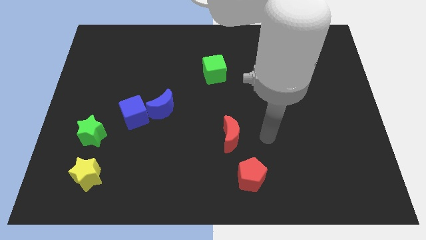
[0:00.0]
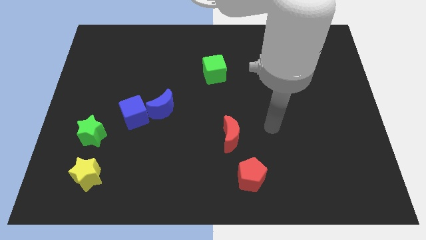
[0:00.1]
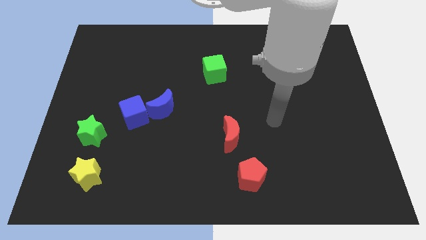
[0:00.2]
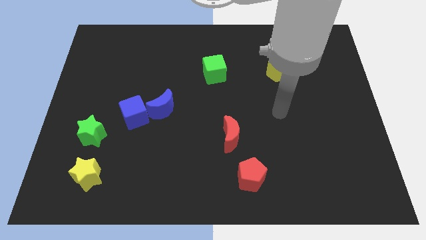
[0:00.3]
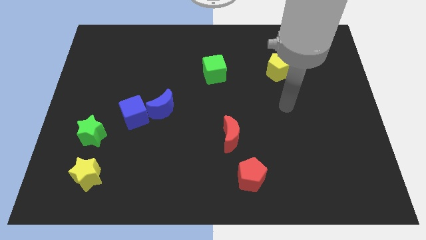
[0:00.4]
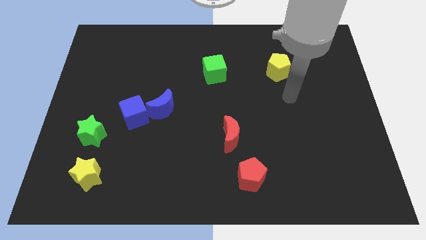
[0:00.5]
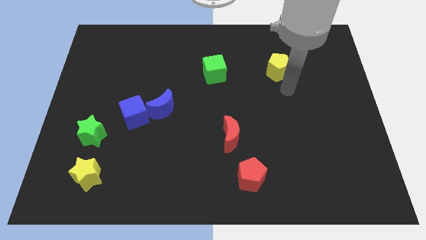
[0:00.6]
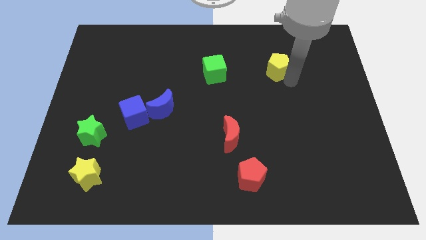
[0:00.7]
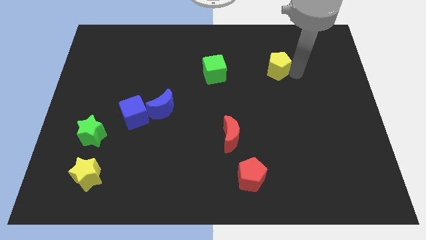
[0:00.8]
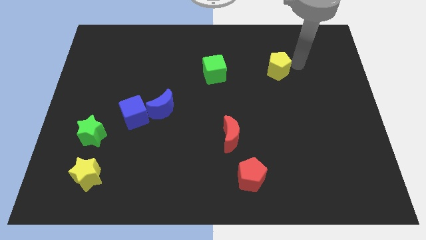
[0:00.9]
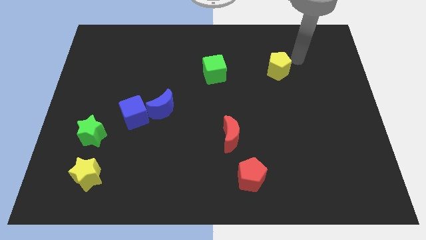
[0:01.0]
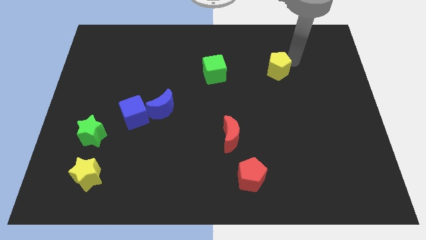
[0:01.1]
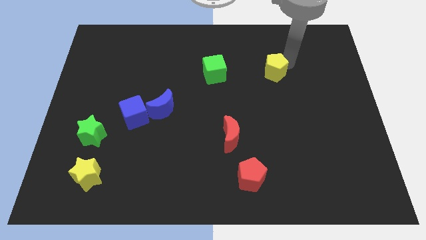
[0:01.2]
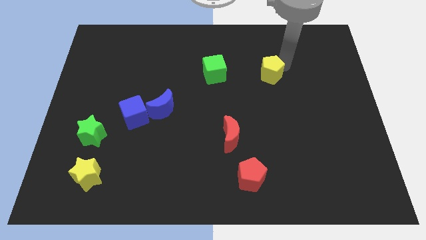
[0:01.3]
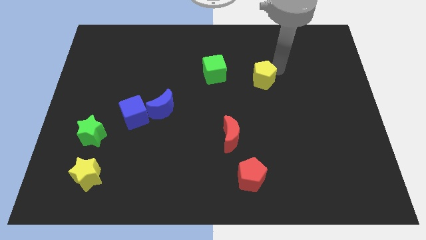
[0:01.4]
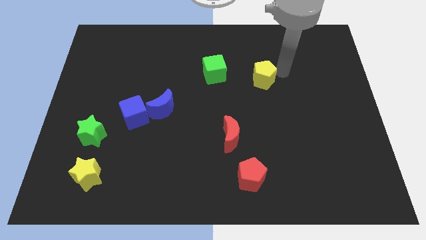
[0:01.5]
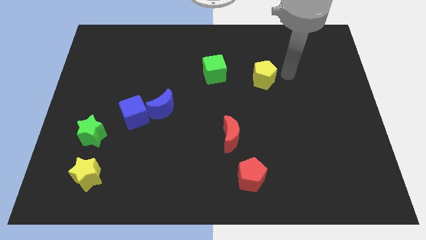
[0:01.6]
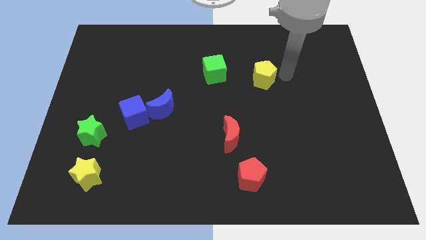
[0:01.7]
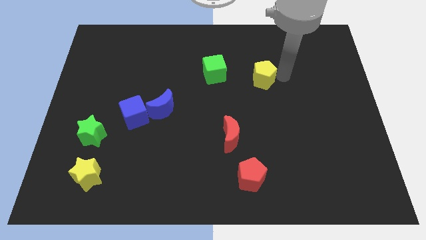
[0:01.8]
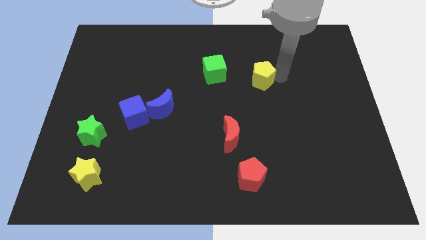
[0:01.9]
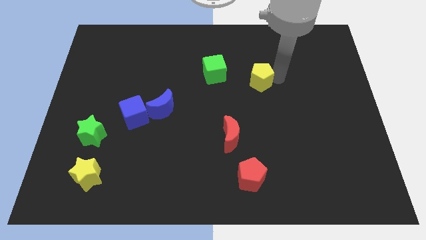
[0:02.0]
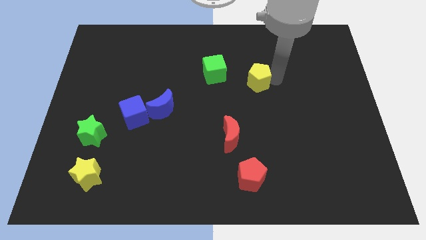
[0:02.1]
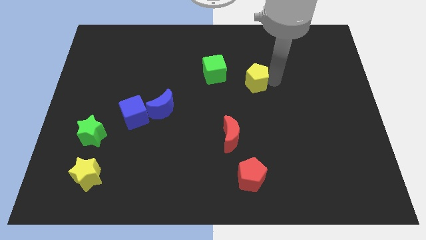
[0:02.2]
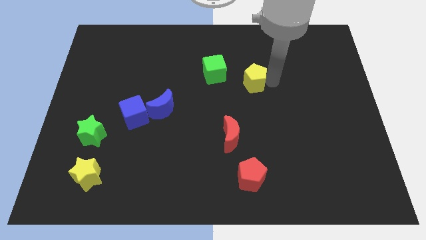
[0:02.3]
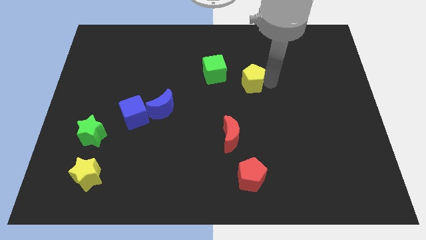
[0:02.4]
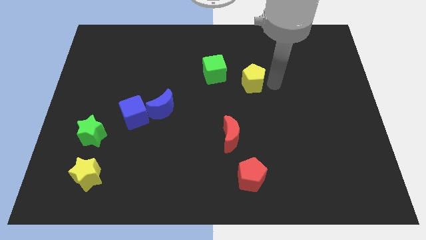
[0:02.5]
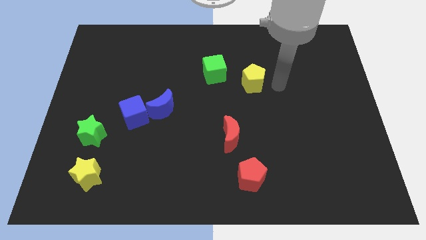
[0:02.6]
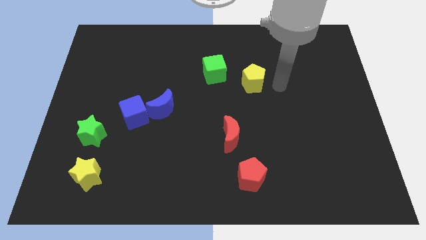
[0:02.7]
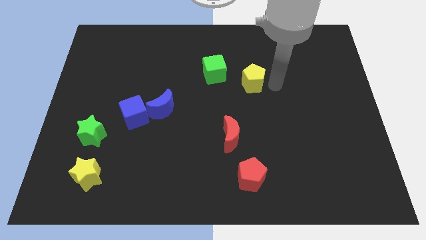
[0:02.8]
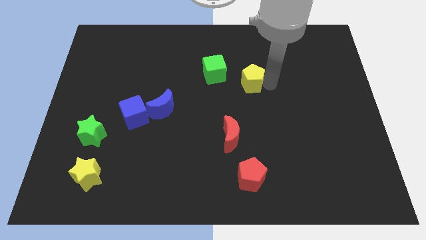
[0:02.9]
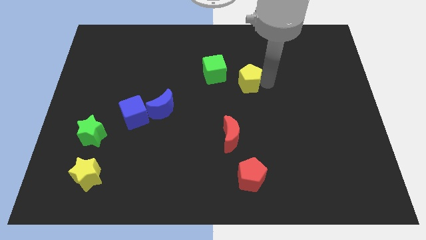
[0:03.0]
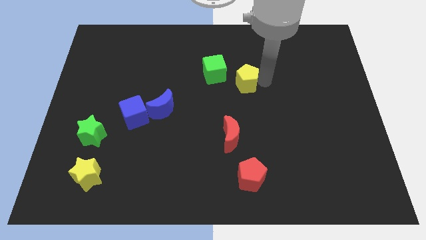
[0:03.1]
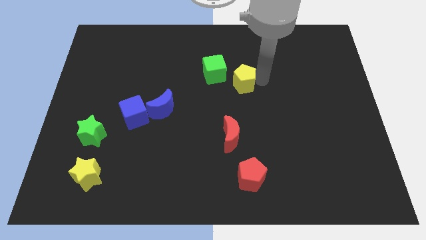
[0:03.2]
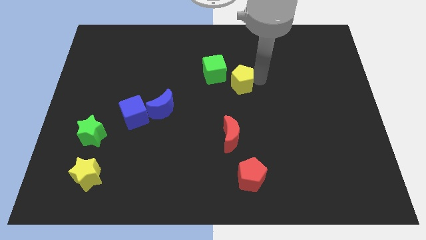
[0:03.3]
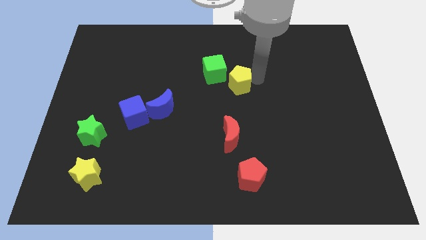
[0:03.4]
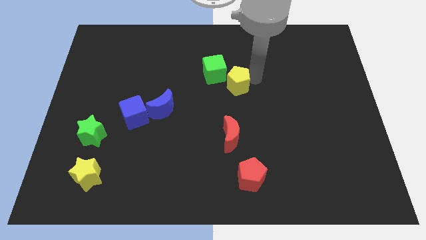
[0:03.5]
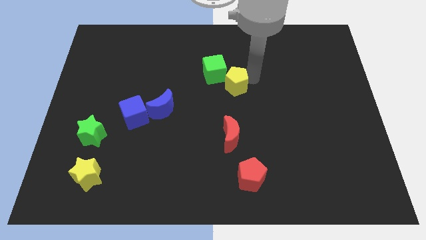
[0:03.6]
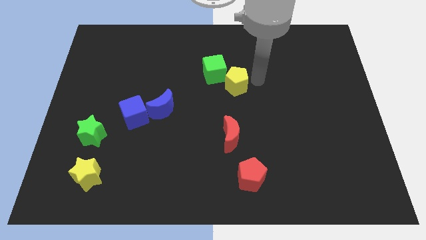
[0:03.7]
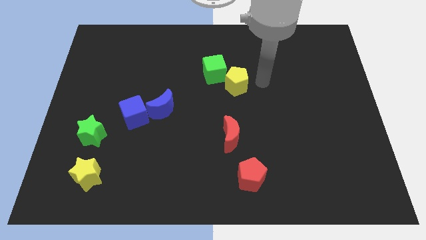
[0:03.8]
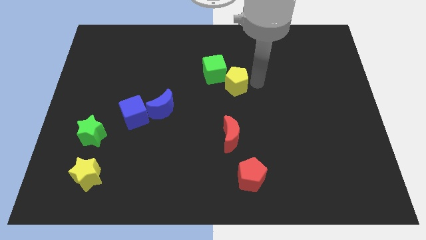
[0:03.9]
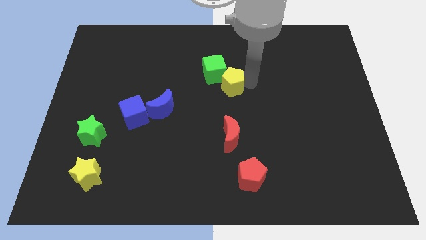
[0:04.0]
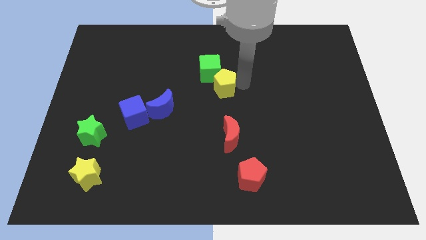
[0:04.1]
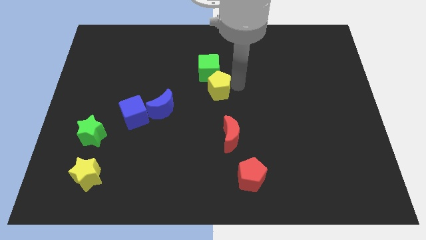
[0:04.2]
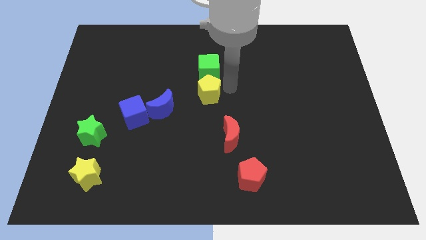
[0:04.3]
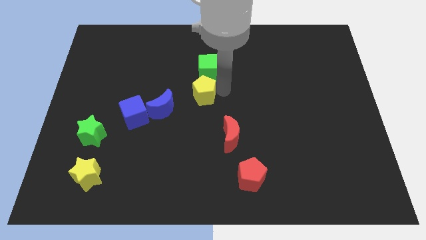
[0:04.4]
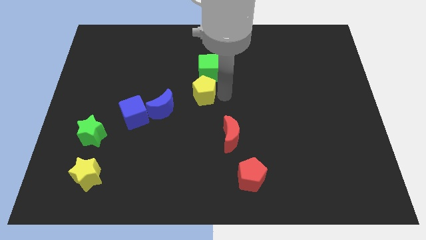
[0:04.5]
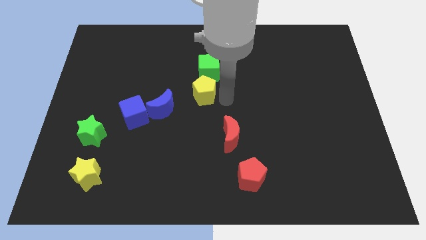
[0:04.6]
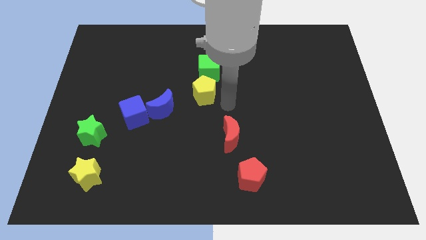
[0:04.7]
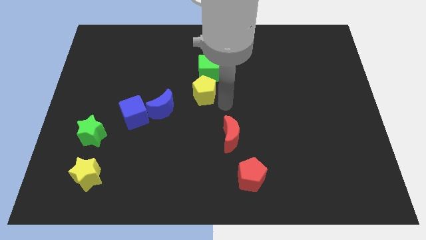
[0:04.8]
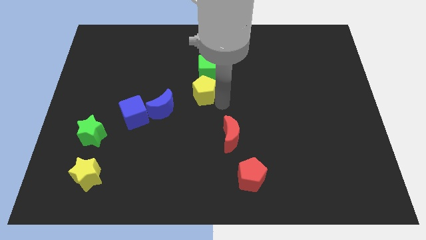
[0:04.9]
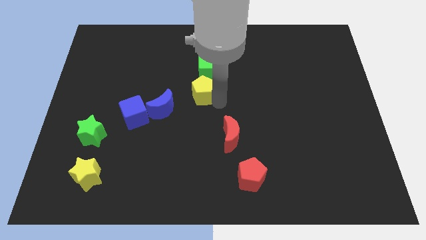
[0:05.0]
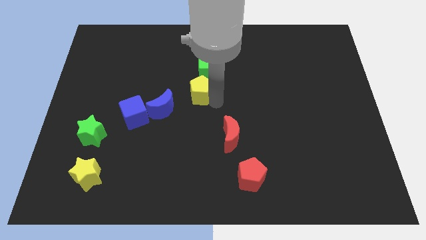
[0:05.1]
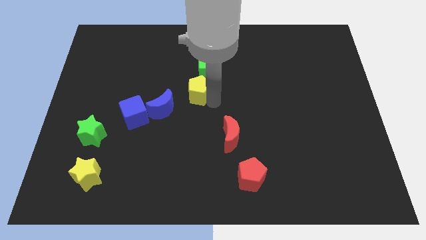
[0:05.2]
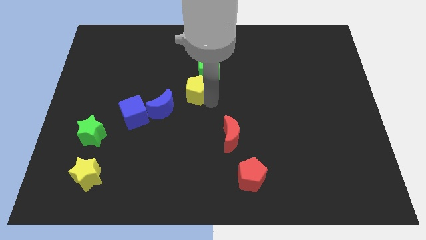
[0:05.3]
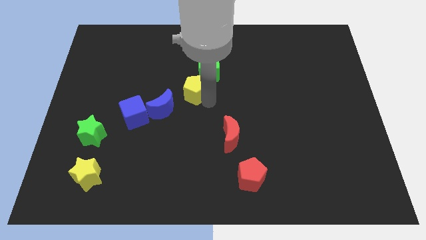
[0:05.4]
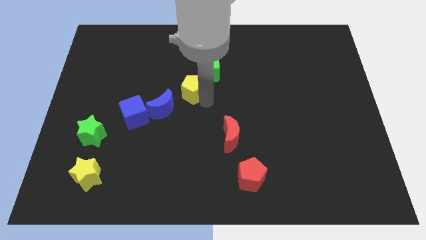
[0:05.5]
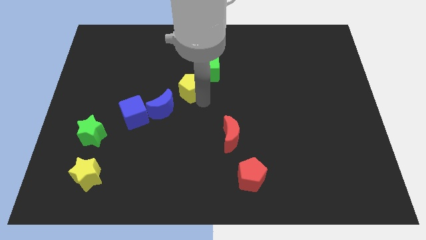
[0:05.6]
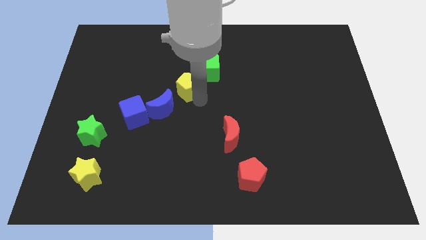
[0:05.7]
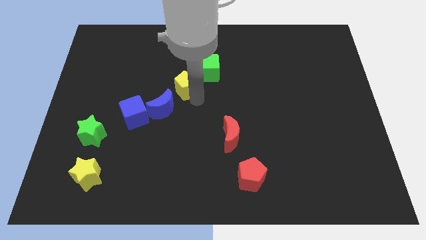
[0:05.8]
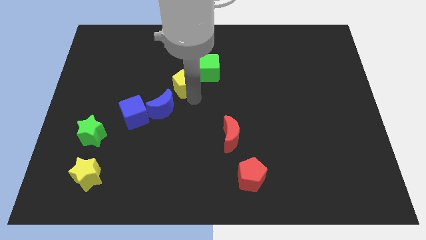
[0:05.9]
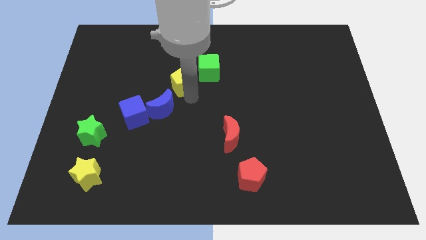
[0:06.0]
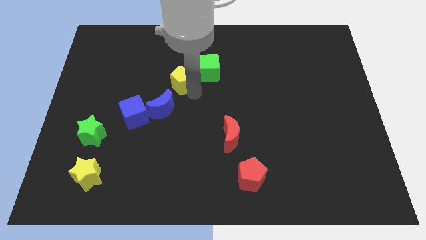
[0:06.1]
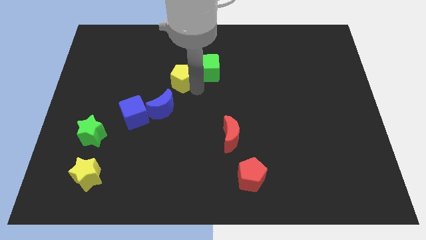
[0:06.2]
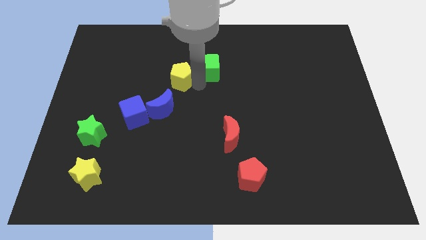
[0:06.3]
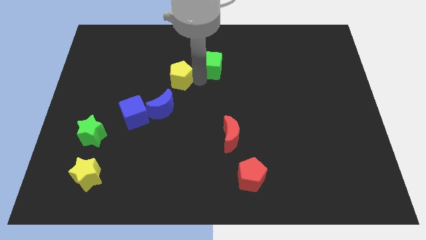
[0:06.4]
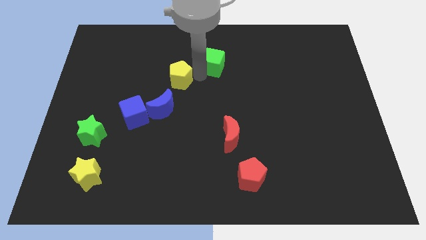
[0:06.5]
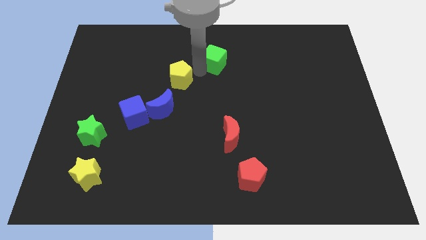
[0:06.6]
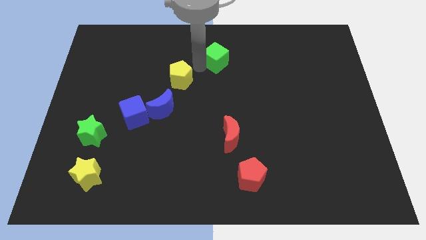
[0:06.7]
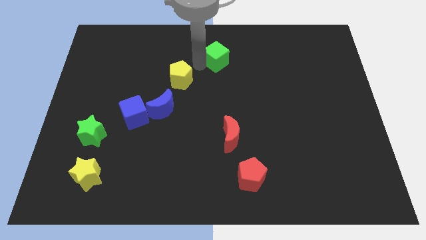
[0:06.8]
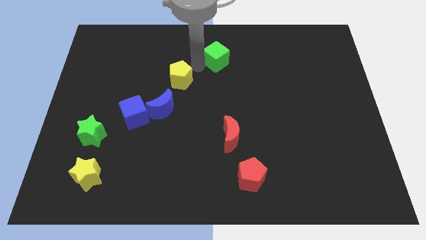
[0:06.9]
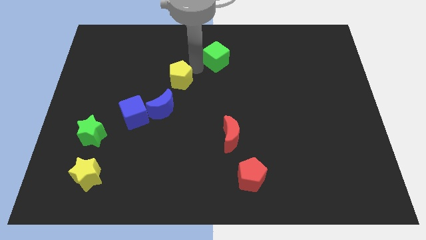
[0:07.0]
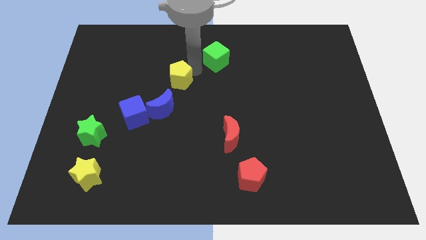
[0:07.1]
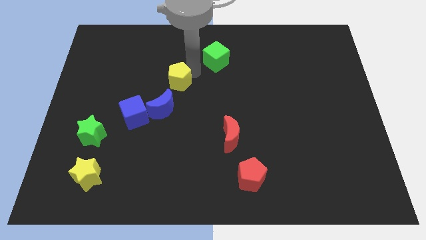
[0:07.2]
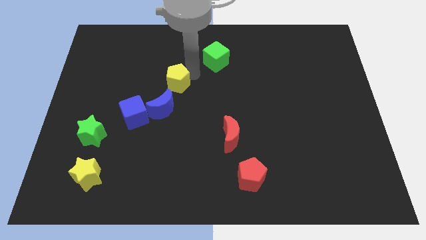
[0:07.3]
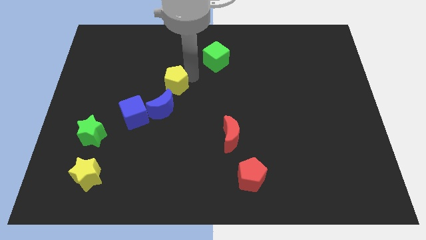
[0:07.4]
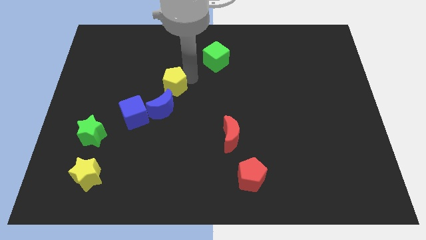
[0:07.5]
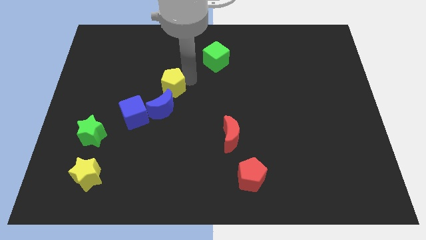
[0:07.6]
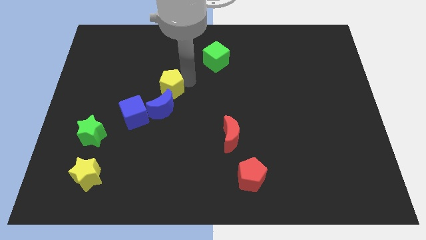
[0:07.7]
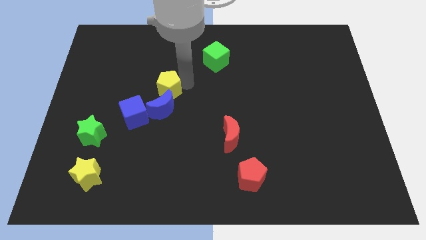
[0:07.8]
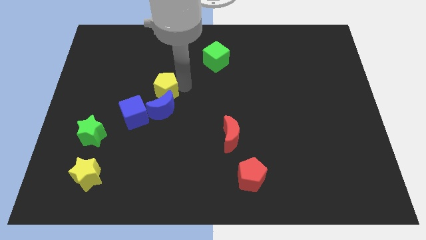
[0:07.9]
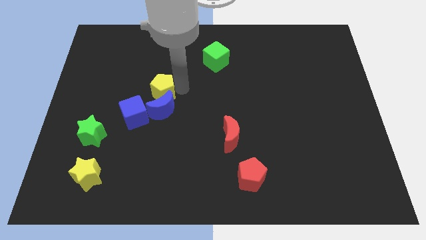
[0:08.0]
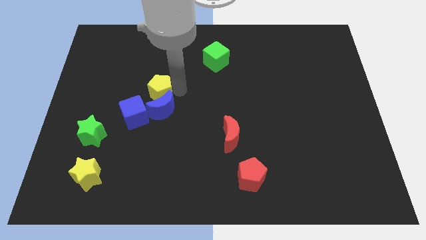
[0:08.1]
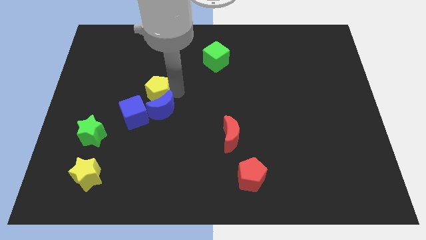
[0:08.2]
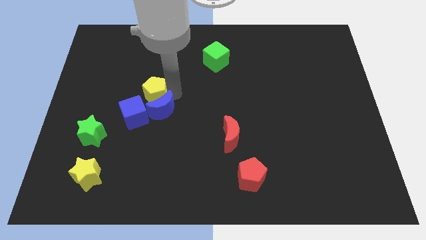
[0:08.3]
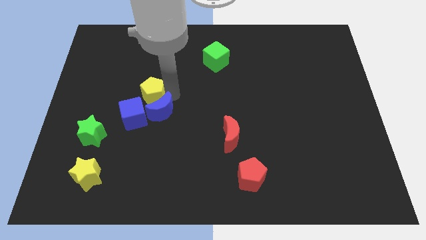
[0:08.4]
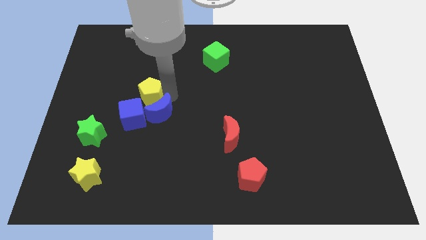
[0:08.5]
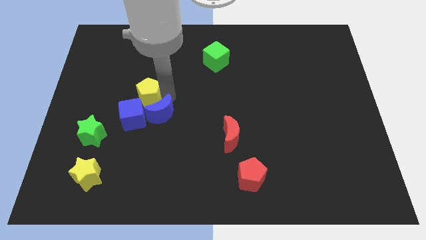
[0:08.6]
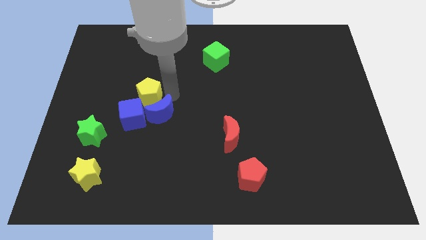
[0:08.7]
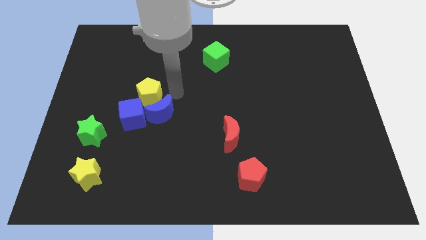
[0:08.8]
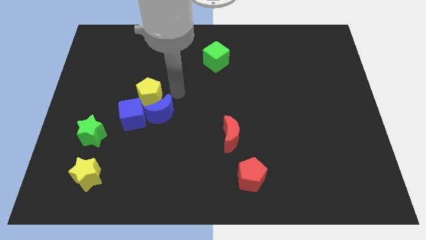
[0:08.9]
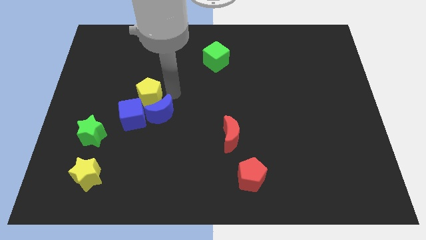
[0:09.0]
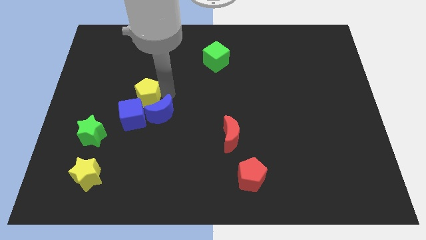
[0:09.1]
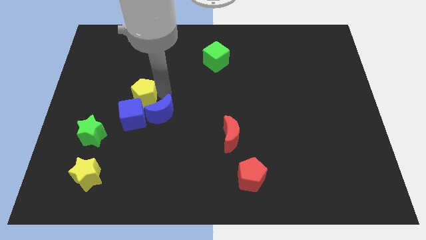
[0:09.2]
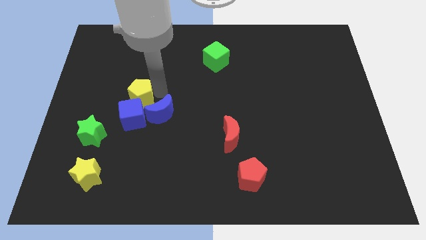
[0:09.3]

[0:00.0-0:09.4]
slide the yellow pentagon to the left of the blue moon
